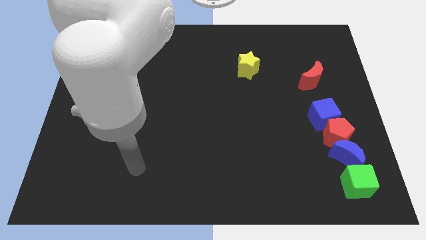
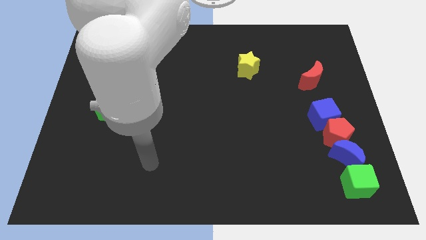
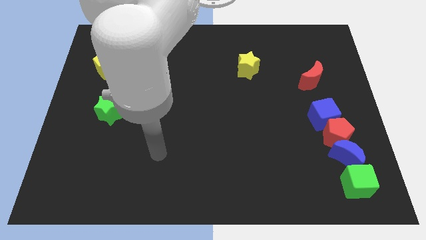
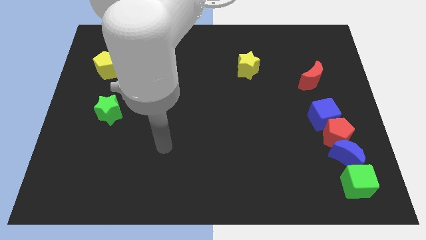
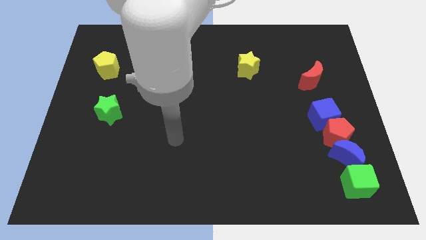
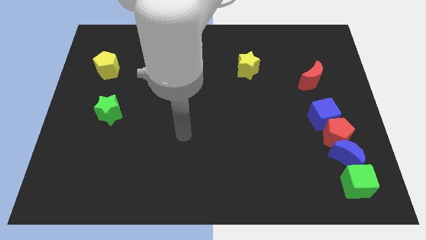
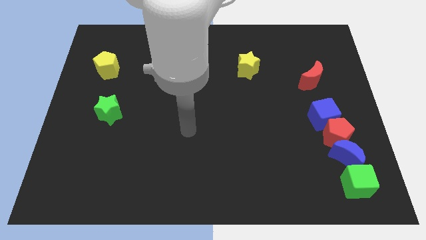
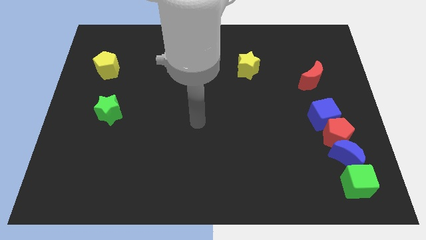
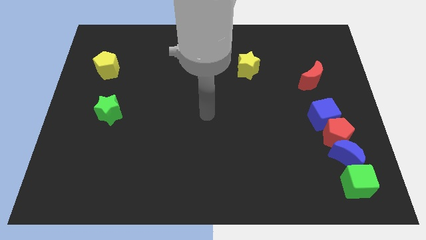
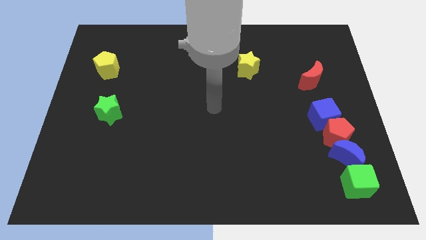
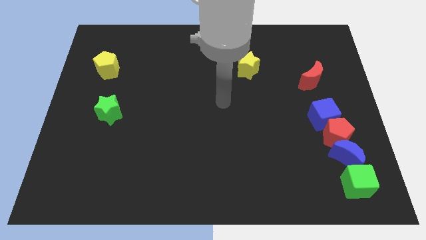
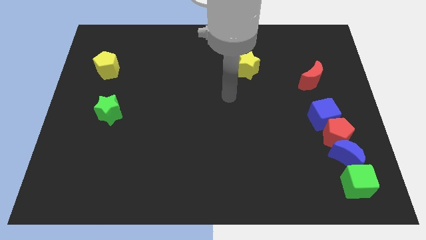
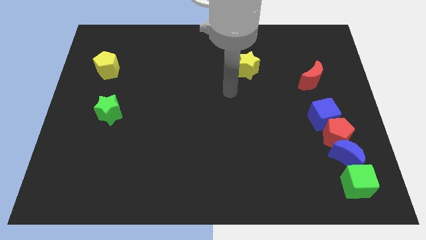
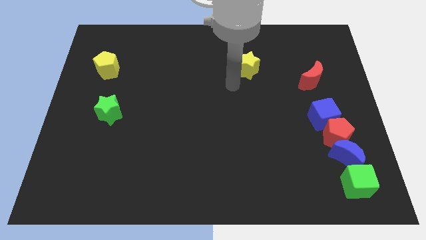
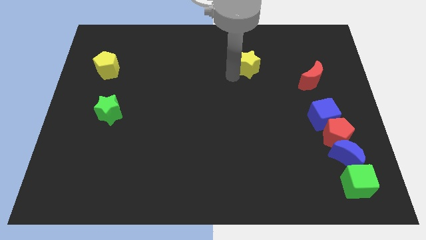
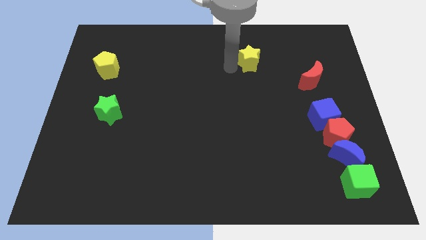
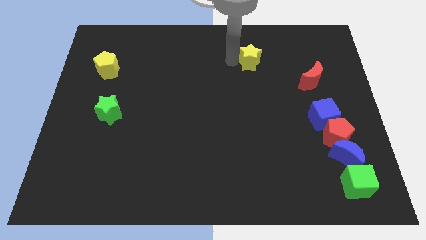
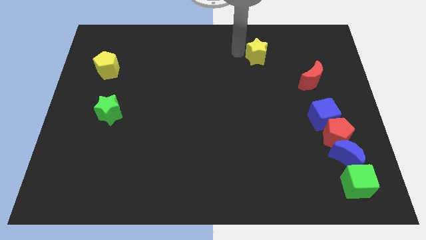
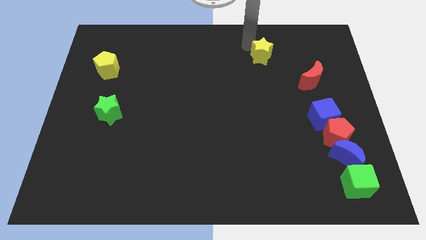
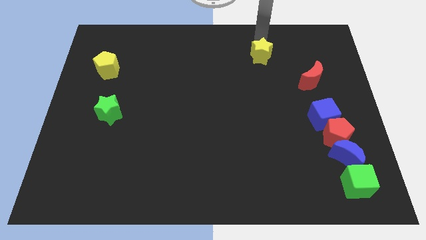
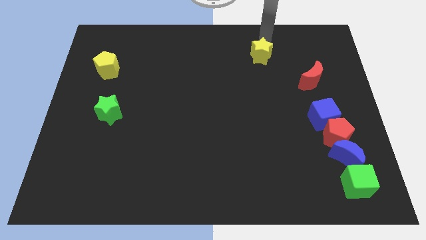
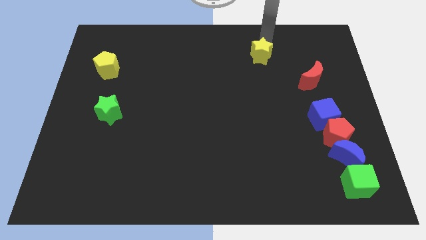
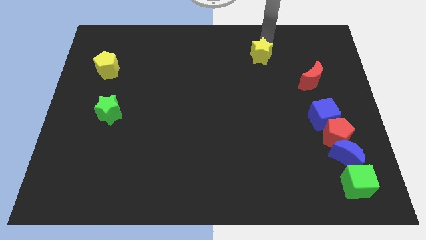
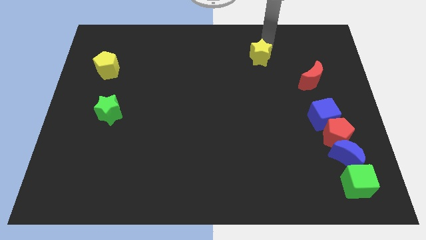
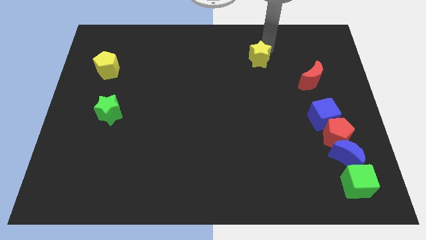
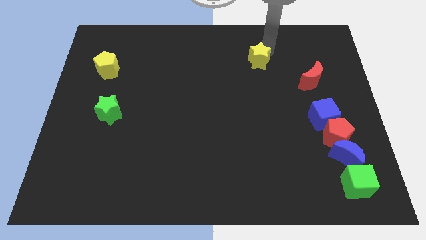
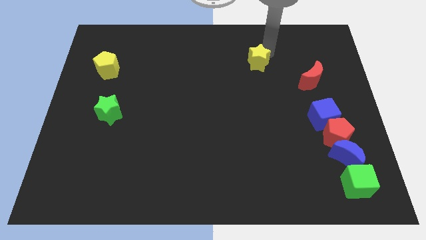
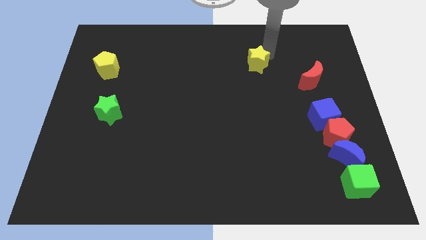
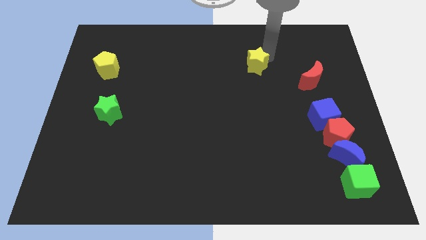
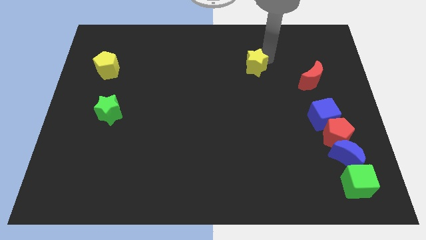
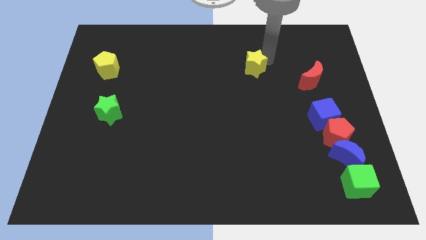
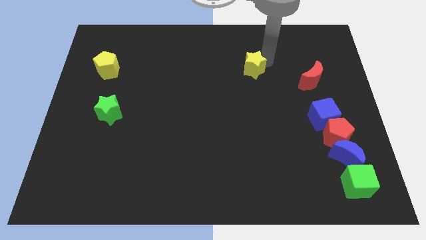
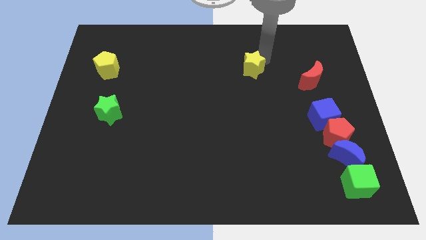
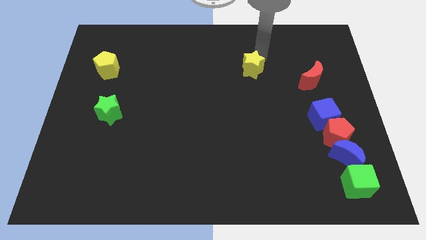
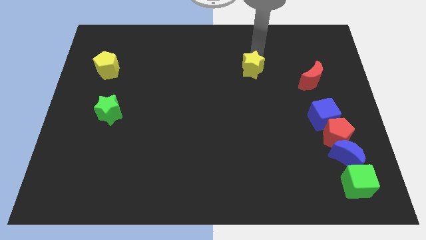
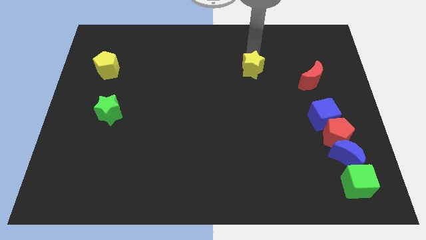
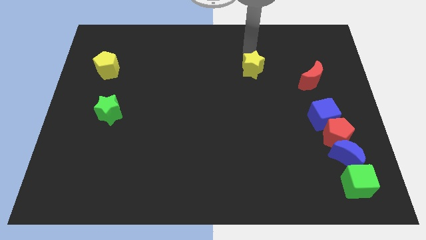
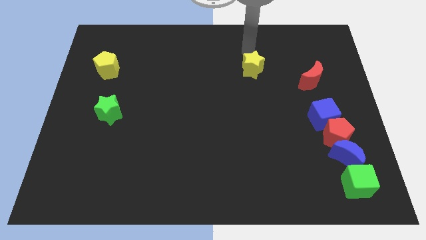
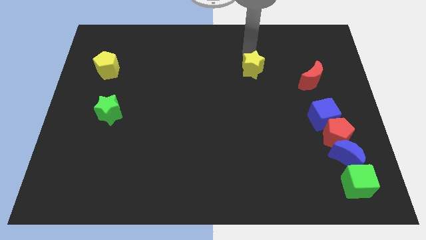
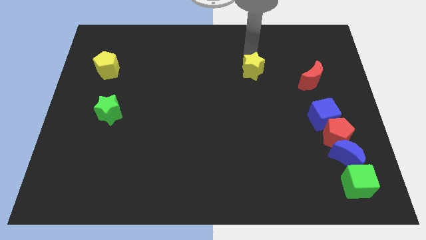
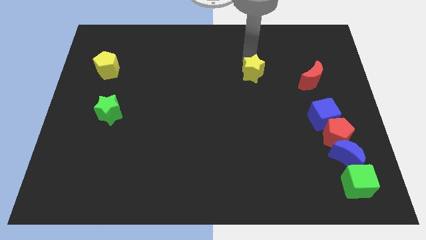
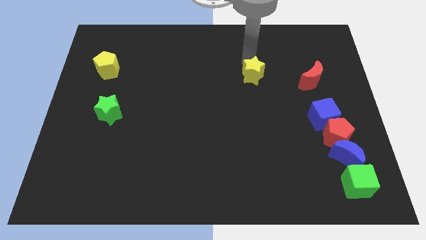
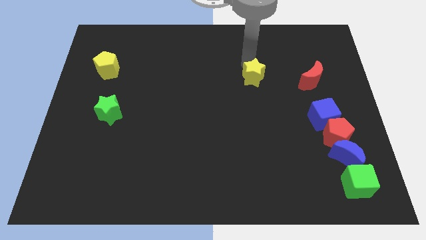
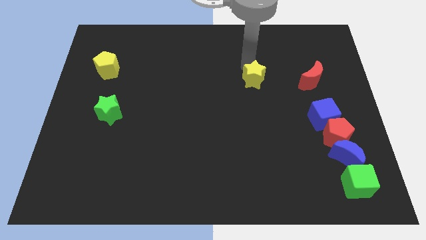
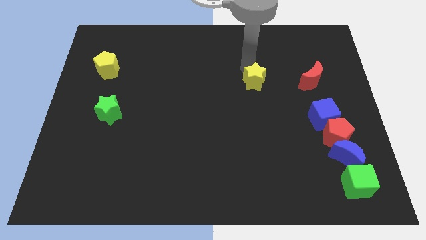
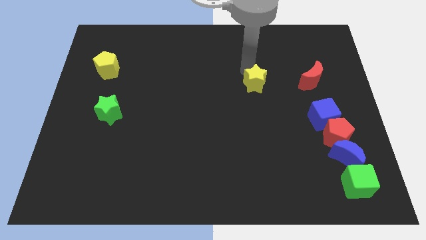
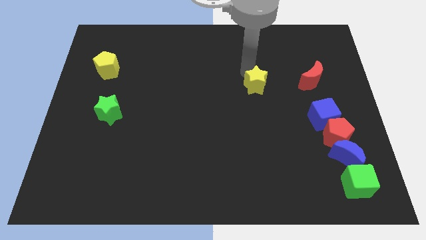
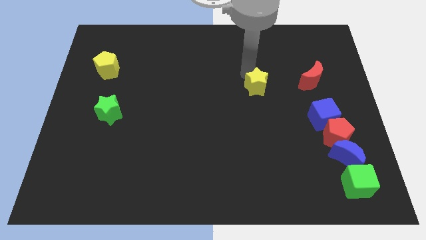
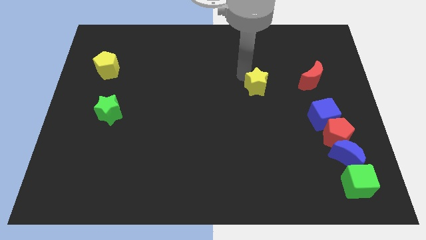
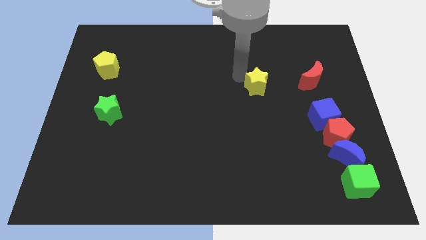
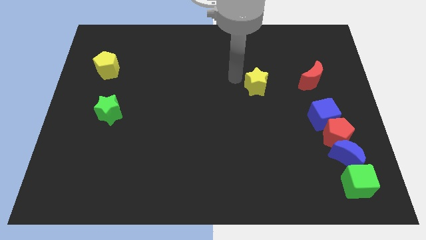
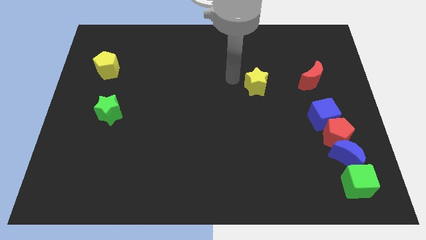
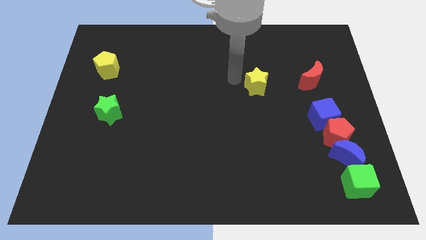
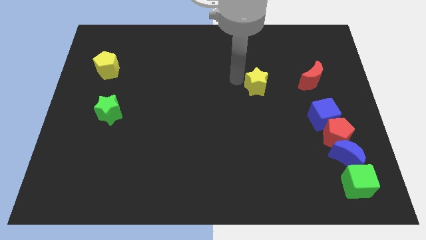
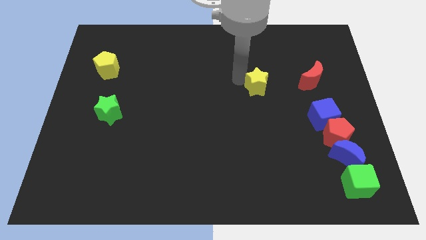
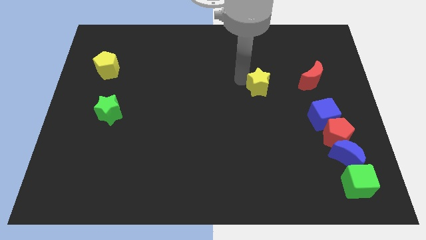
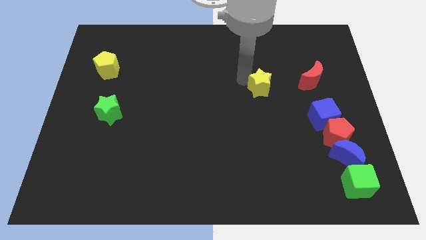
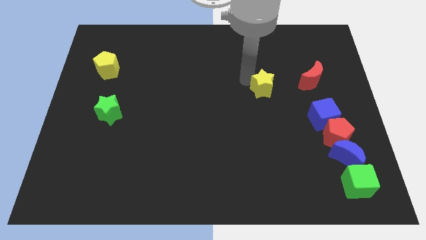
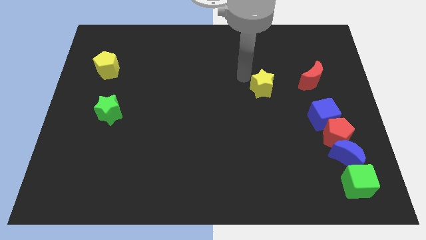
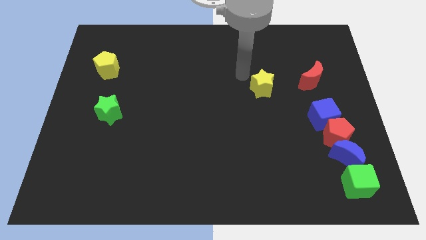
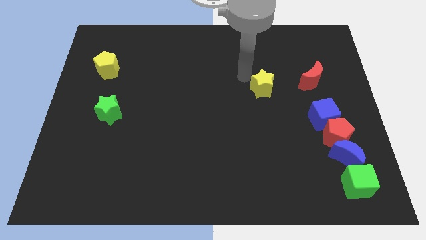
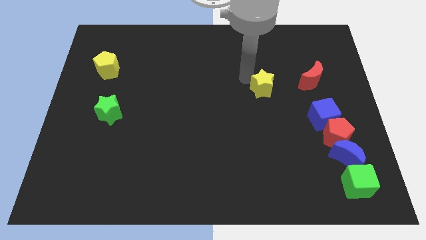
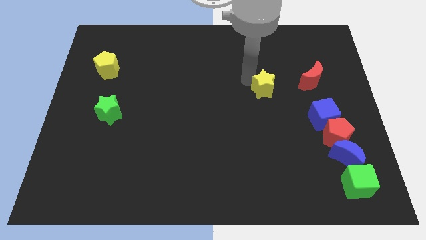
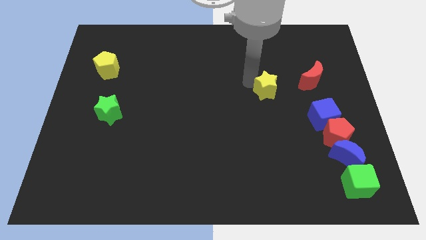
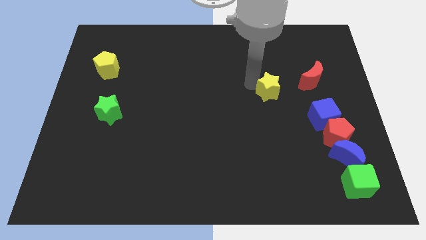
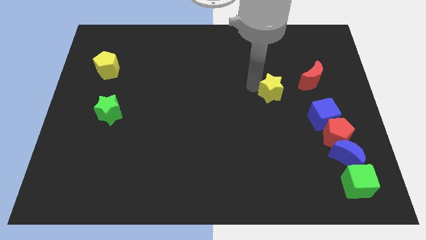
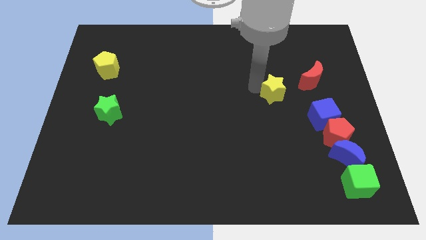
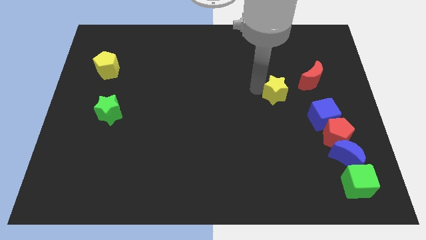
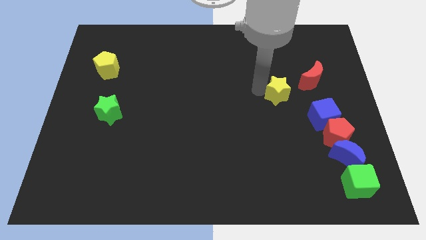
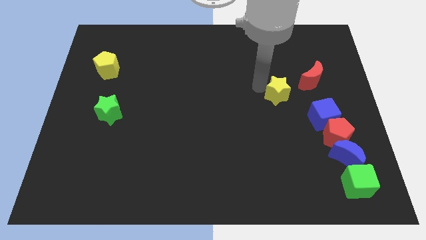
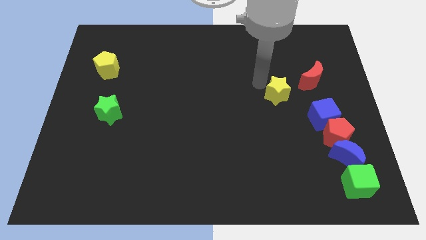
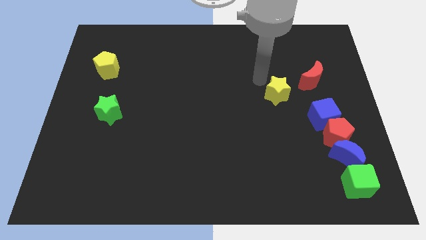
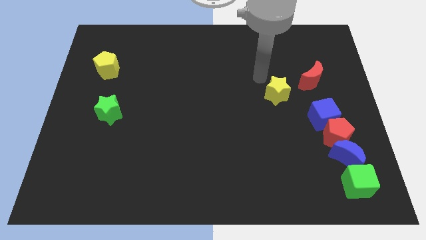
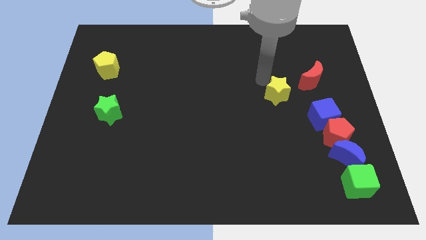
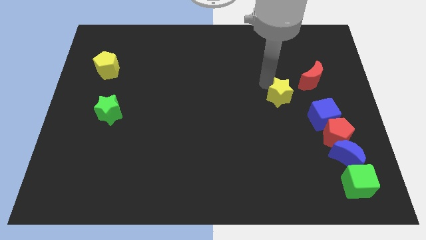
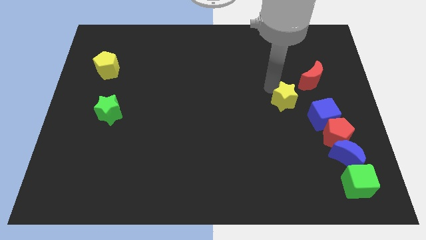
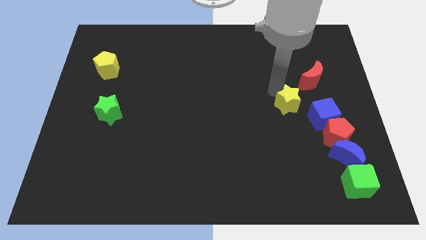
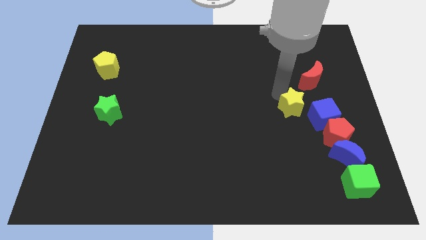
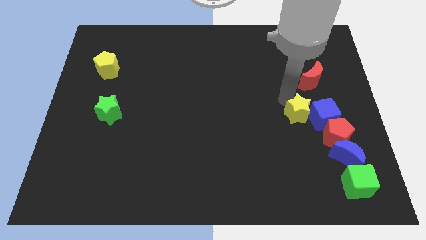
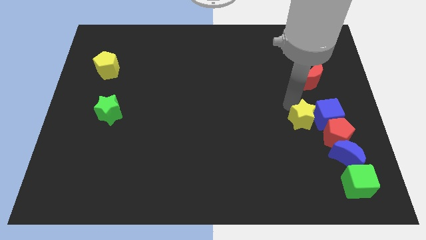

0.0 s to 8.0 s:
move the yellow star to the top left of the blue moon
